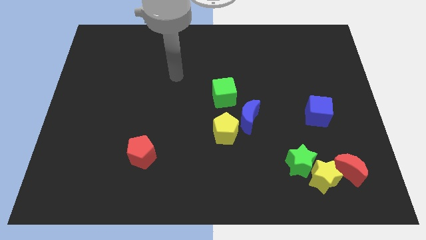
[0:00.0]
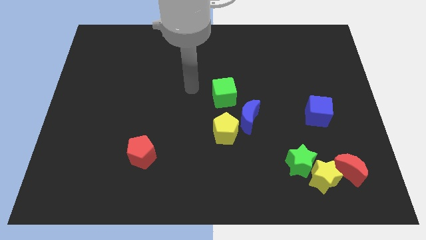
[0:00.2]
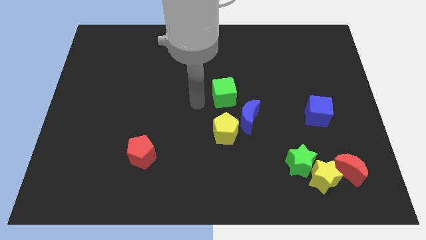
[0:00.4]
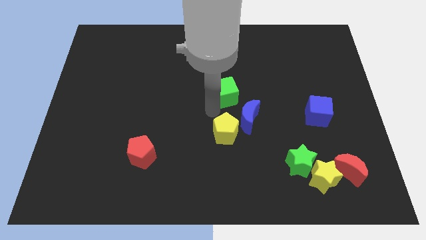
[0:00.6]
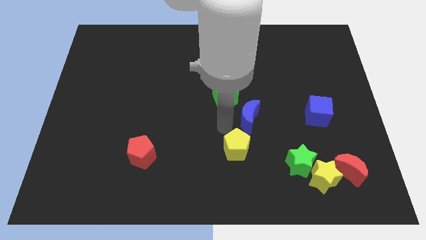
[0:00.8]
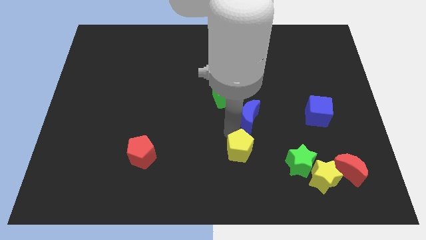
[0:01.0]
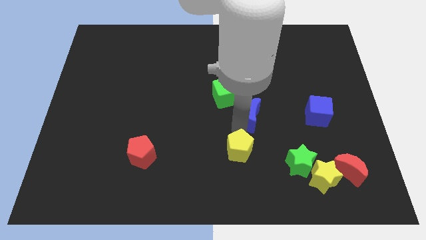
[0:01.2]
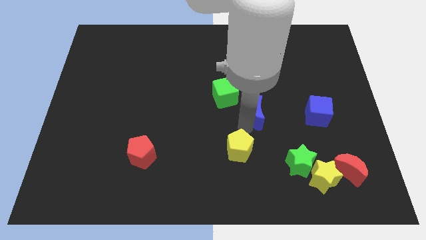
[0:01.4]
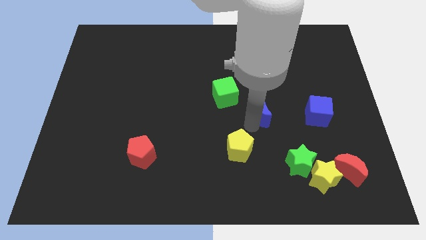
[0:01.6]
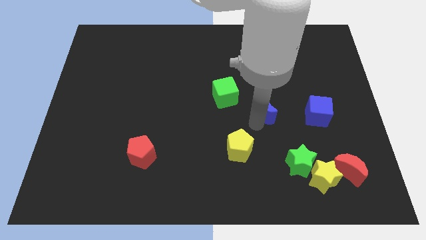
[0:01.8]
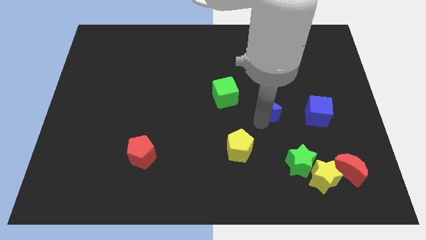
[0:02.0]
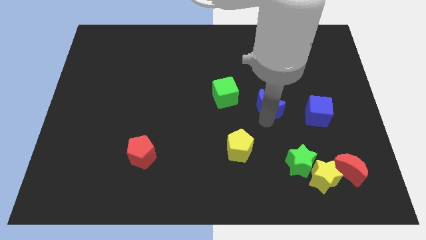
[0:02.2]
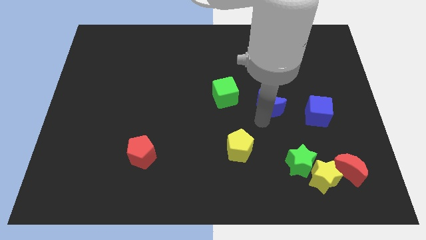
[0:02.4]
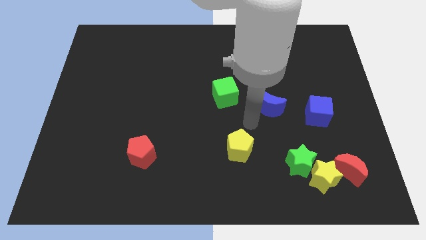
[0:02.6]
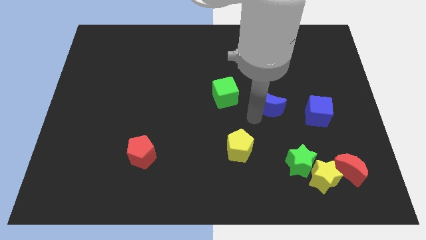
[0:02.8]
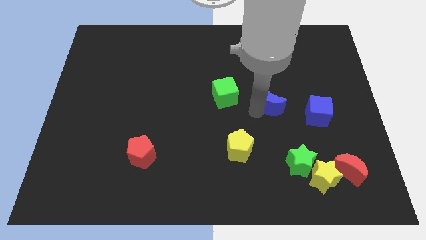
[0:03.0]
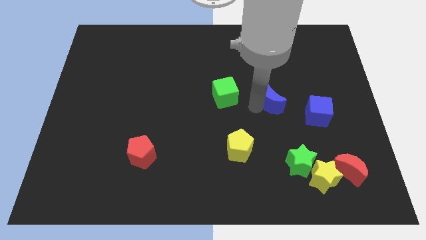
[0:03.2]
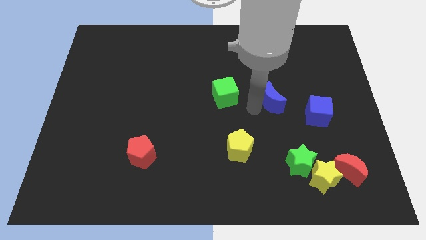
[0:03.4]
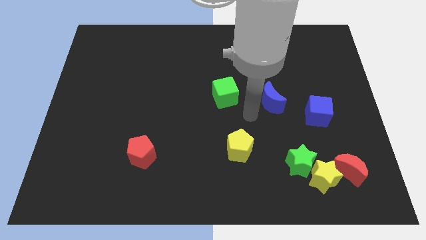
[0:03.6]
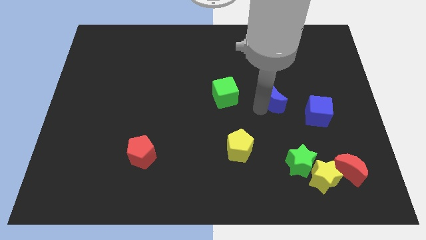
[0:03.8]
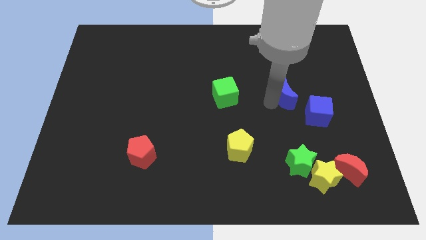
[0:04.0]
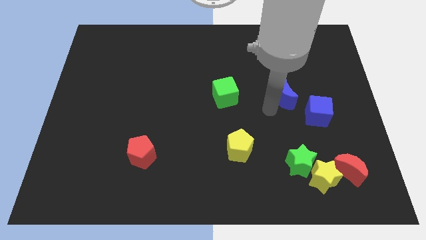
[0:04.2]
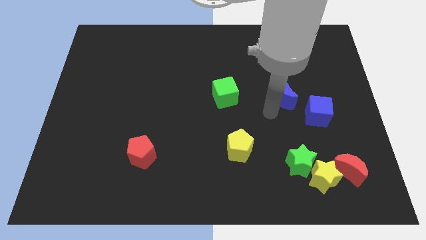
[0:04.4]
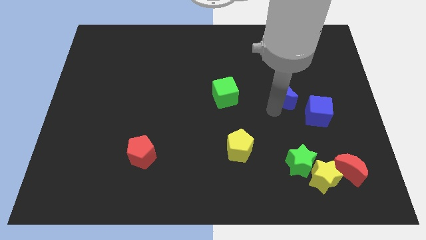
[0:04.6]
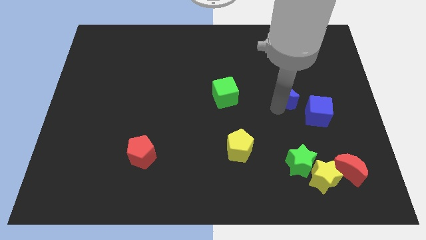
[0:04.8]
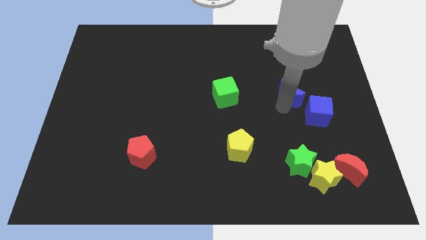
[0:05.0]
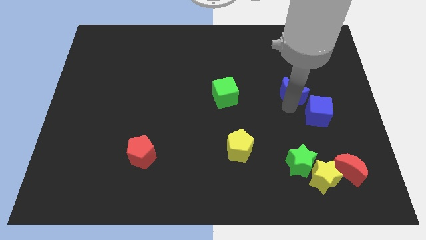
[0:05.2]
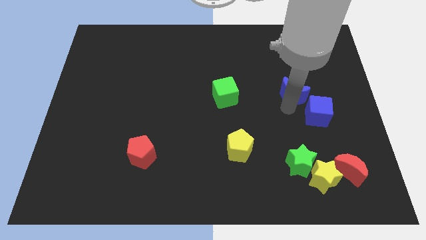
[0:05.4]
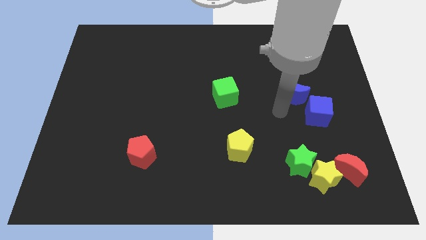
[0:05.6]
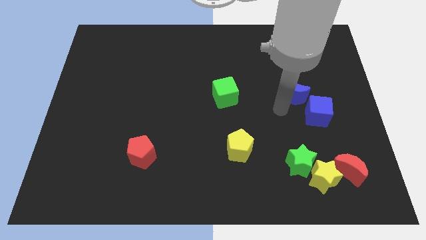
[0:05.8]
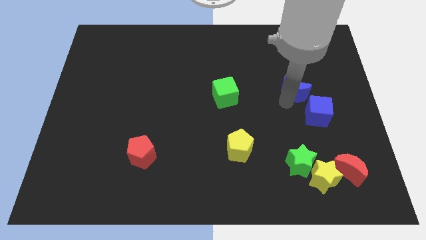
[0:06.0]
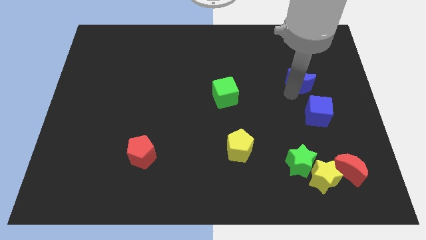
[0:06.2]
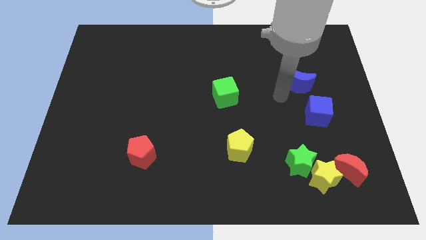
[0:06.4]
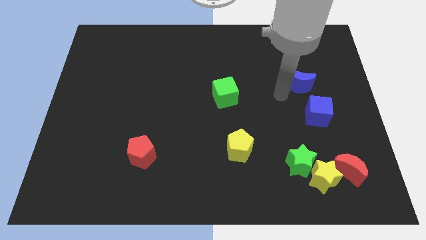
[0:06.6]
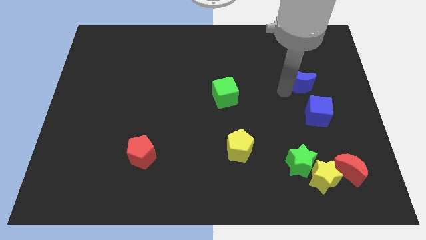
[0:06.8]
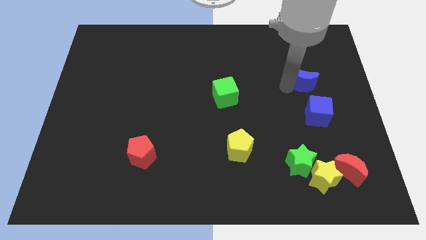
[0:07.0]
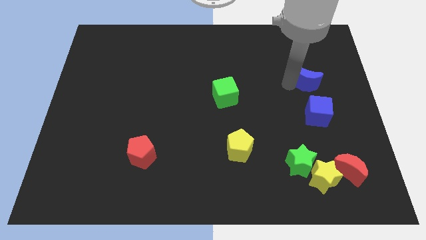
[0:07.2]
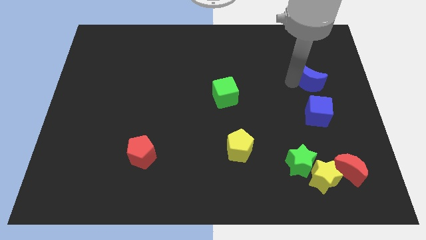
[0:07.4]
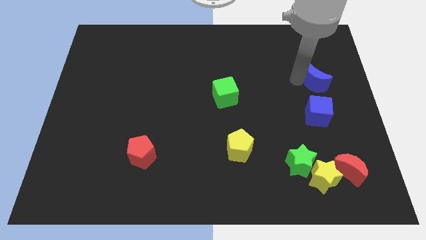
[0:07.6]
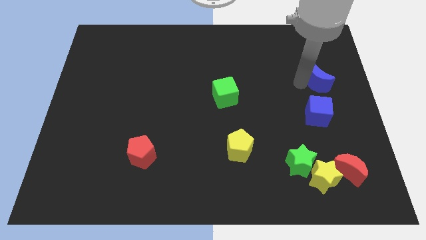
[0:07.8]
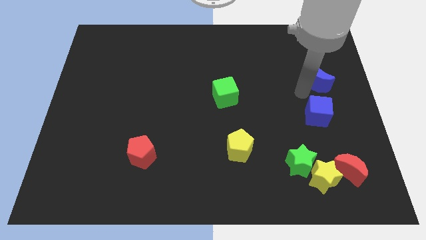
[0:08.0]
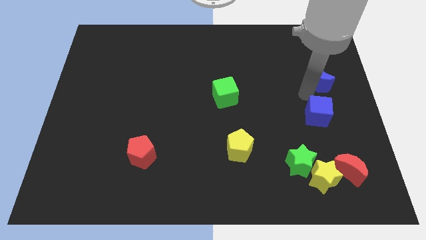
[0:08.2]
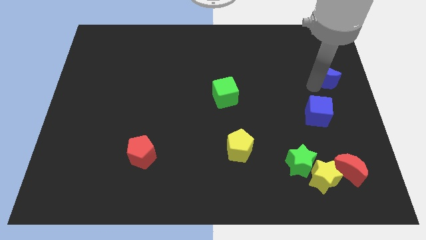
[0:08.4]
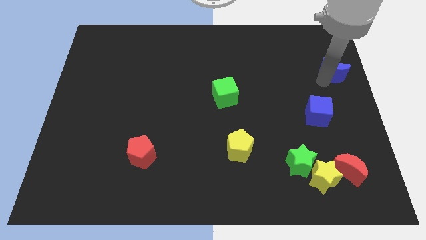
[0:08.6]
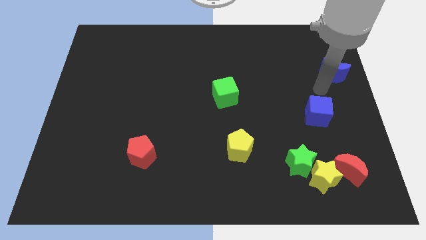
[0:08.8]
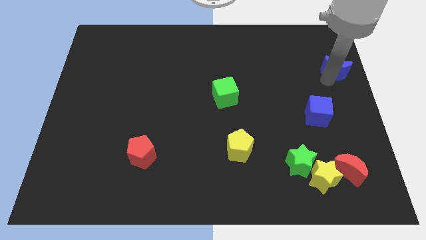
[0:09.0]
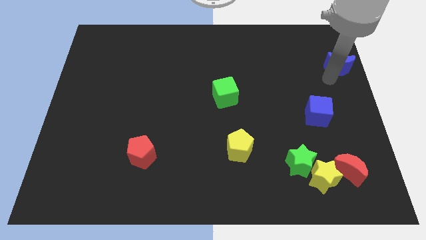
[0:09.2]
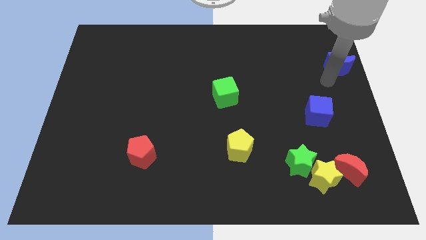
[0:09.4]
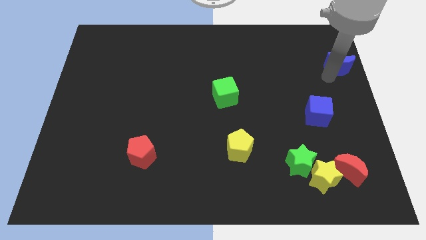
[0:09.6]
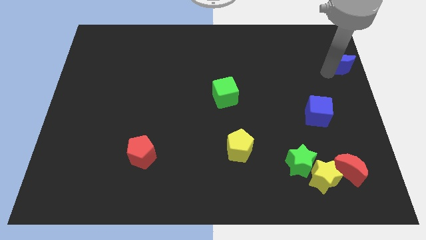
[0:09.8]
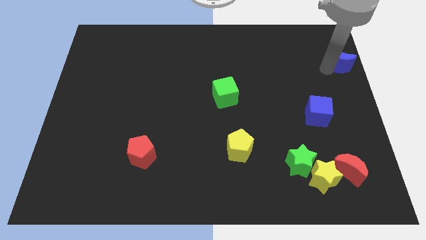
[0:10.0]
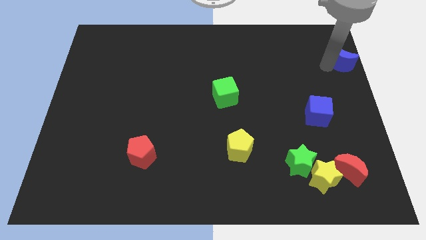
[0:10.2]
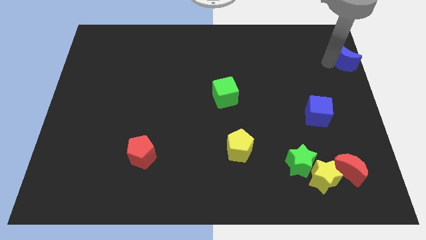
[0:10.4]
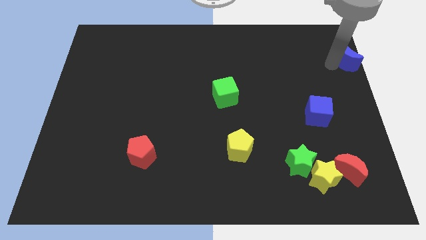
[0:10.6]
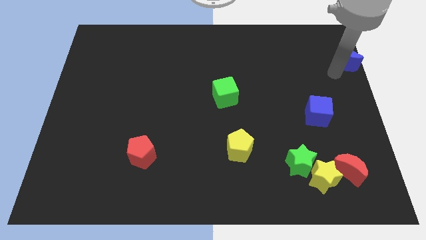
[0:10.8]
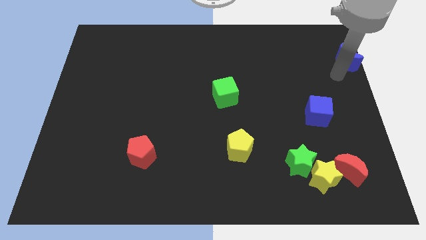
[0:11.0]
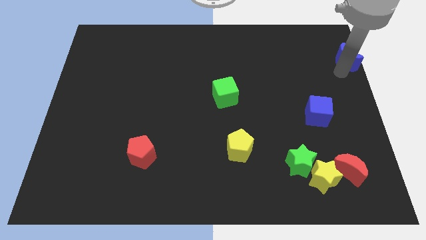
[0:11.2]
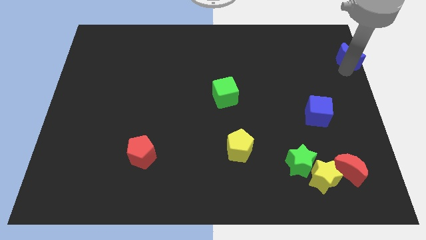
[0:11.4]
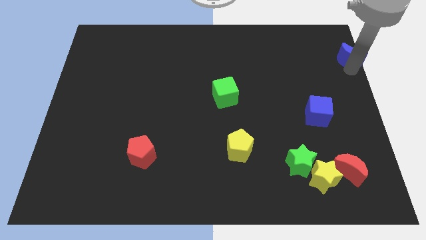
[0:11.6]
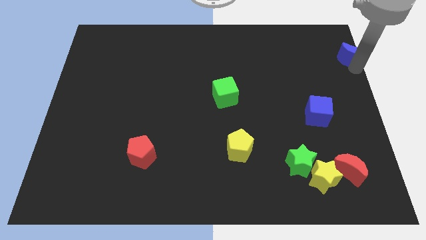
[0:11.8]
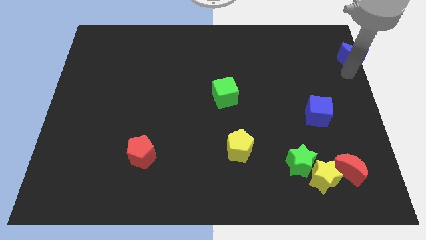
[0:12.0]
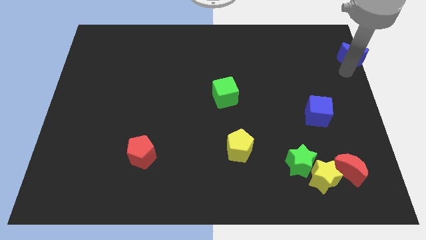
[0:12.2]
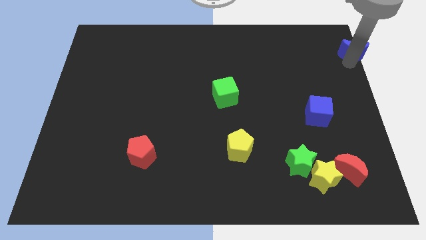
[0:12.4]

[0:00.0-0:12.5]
put the blue moon to the top right corner

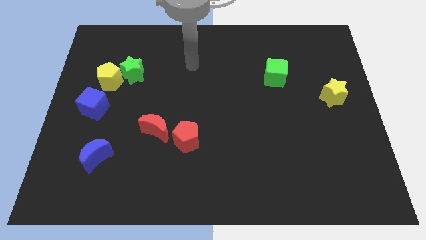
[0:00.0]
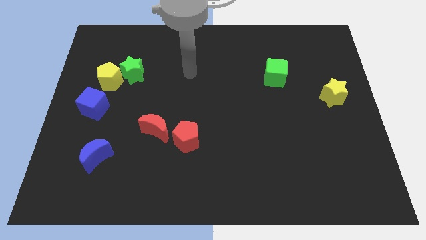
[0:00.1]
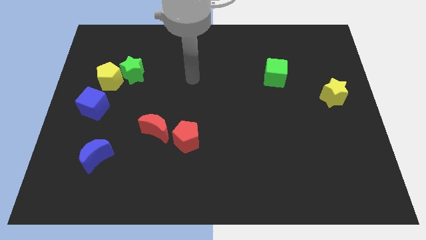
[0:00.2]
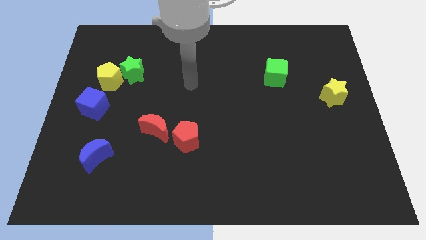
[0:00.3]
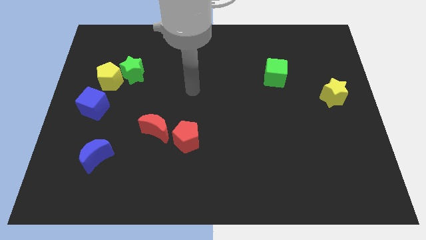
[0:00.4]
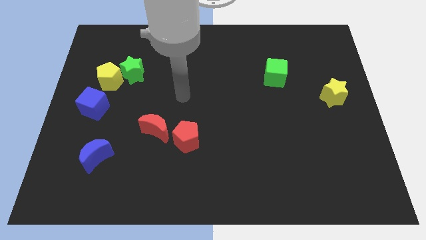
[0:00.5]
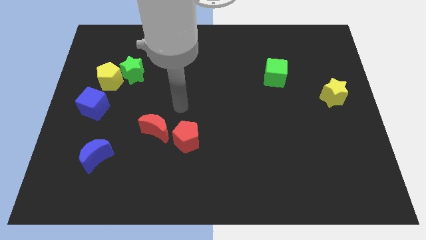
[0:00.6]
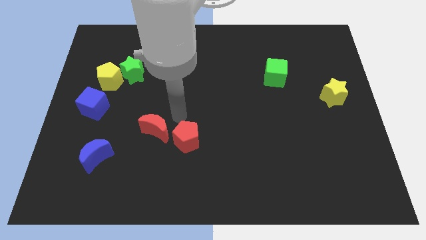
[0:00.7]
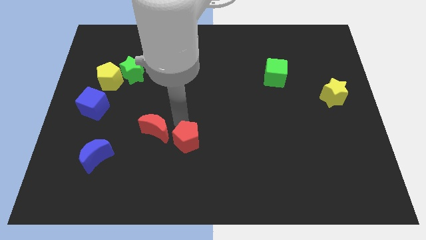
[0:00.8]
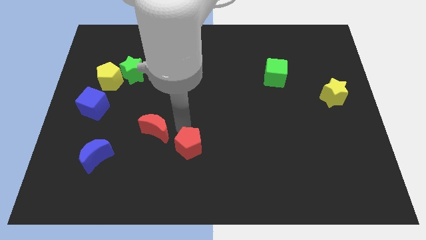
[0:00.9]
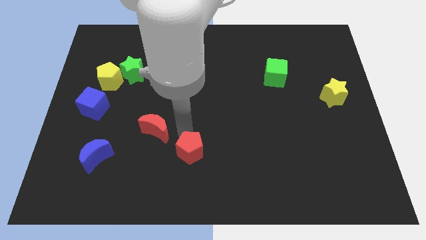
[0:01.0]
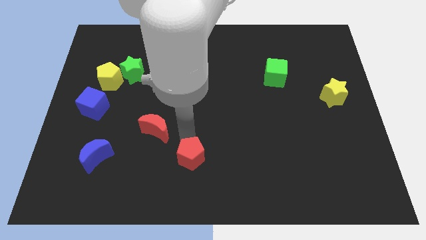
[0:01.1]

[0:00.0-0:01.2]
push the red pentagon to the bottom side
